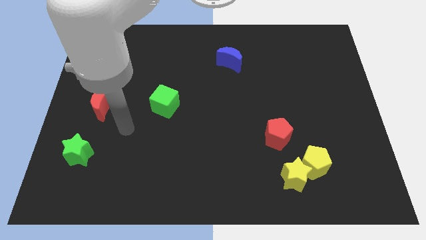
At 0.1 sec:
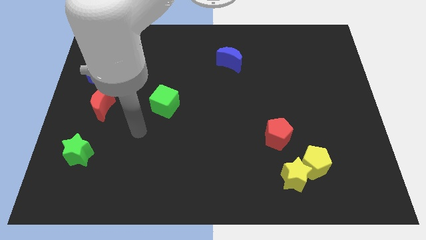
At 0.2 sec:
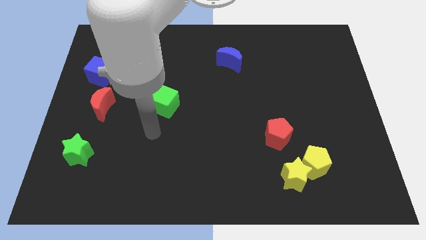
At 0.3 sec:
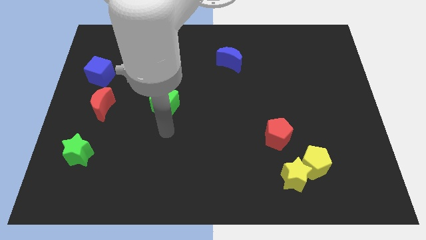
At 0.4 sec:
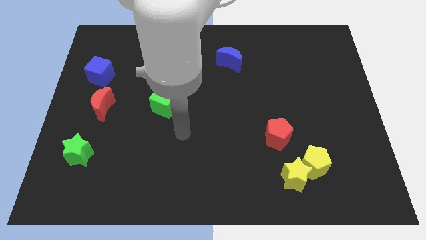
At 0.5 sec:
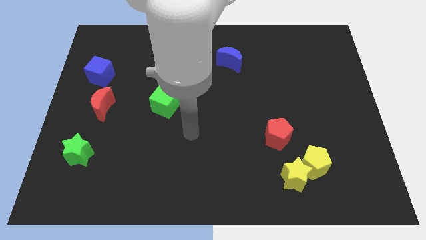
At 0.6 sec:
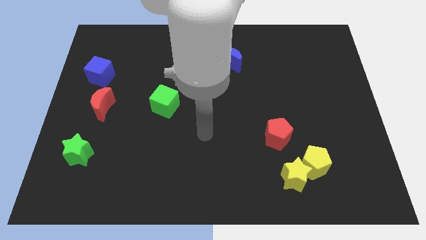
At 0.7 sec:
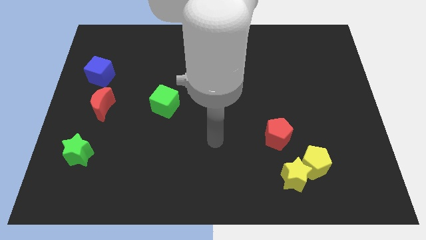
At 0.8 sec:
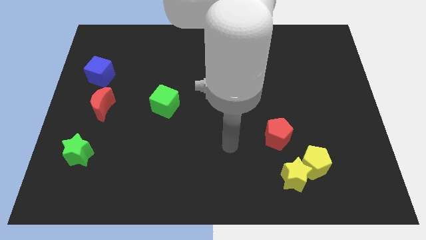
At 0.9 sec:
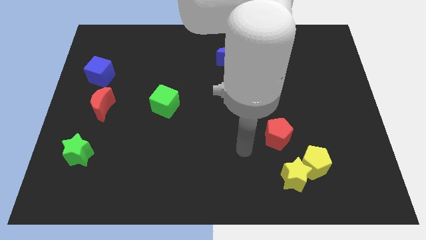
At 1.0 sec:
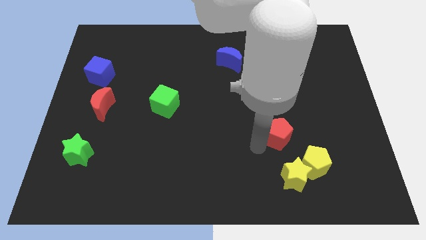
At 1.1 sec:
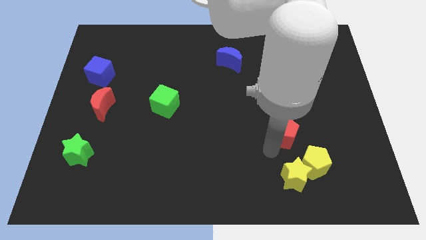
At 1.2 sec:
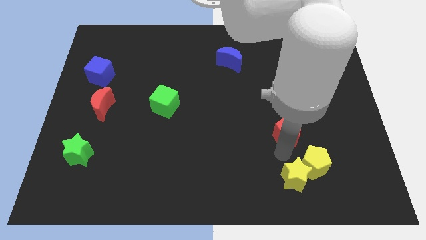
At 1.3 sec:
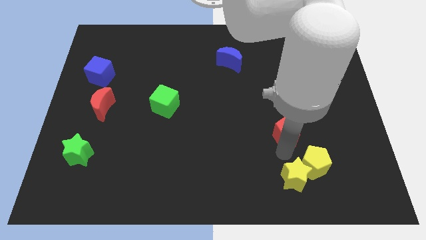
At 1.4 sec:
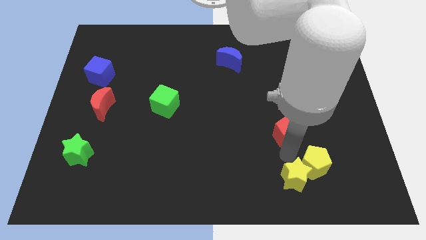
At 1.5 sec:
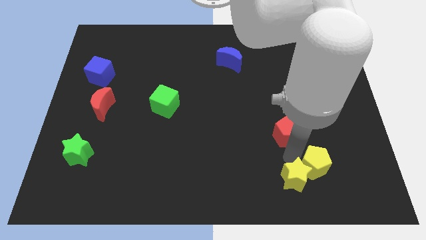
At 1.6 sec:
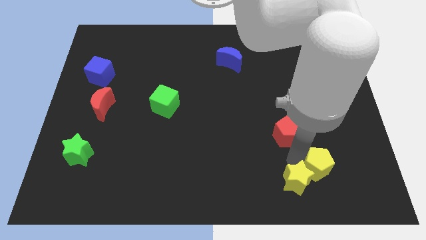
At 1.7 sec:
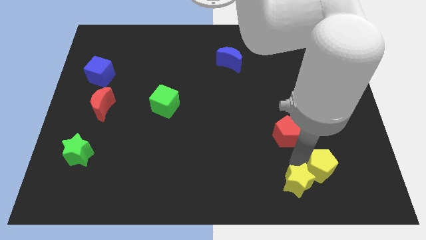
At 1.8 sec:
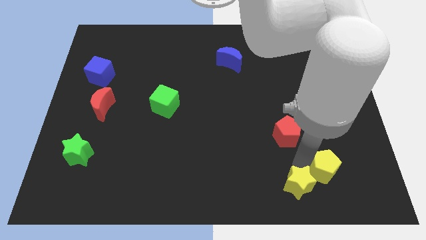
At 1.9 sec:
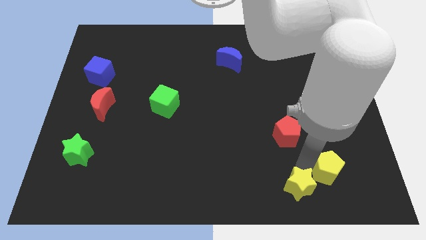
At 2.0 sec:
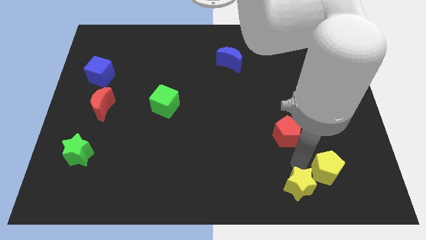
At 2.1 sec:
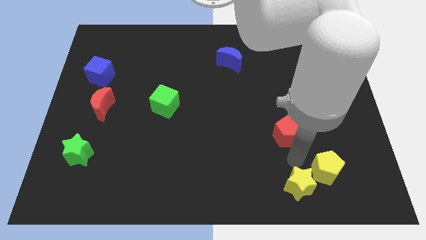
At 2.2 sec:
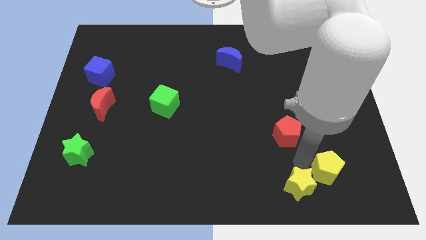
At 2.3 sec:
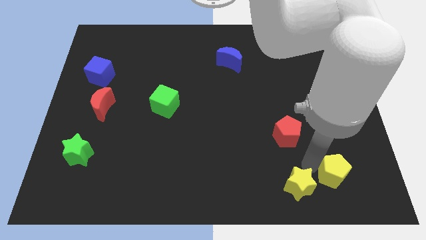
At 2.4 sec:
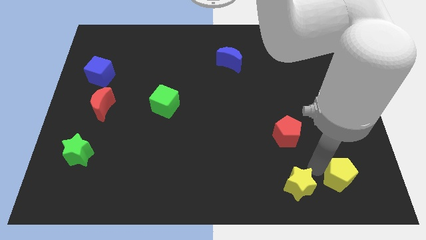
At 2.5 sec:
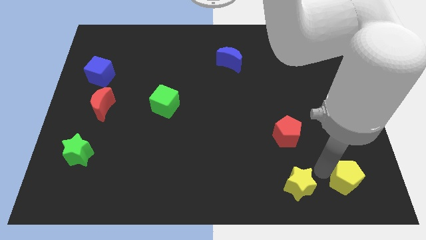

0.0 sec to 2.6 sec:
move the yellow pentagon away from the yellow star and red pentagon

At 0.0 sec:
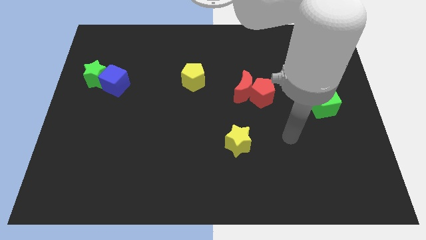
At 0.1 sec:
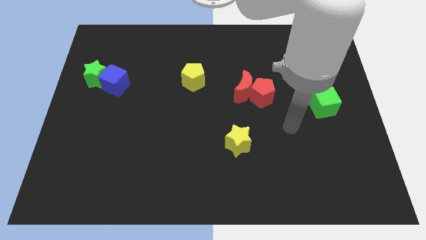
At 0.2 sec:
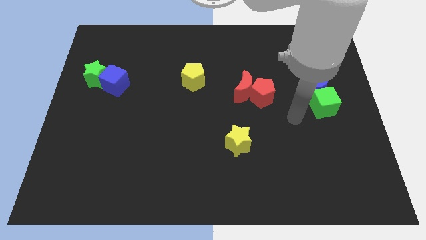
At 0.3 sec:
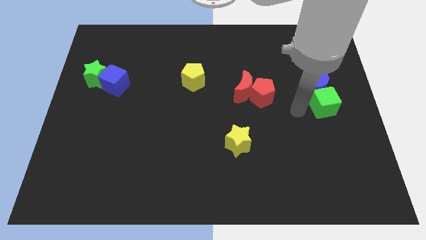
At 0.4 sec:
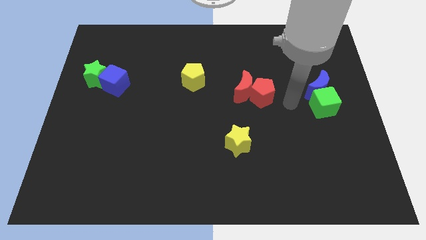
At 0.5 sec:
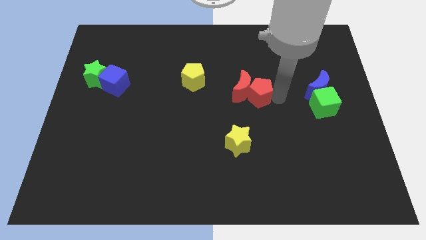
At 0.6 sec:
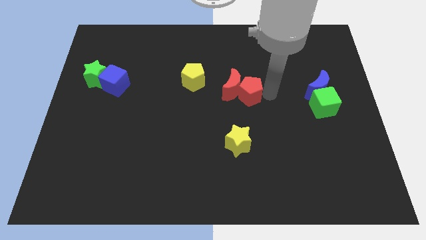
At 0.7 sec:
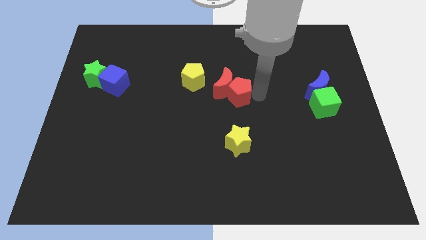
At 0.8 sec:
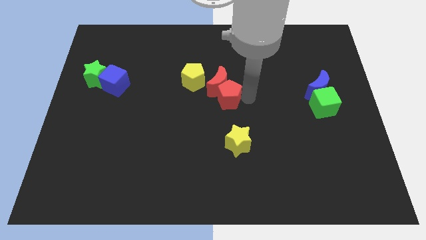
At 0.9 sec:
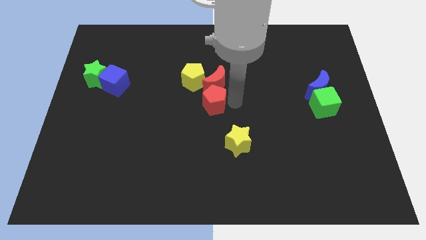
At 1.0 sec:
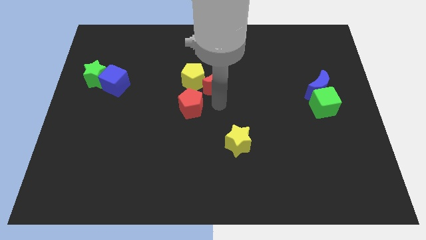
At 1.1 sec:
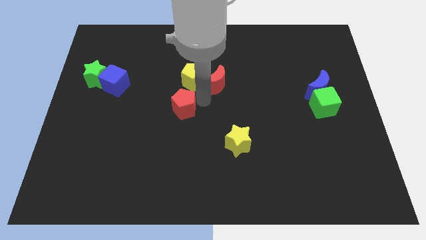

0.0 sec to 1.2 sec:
pull the red moon apart from the red pentagon

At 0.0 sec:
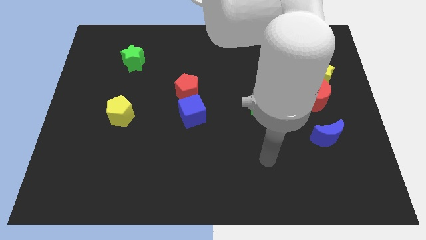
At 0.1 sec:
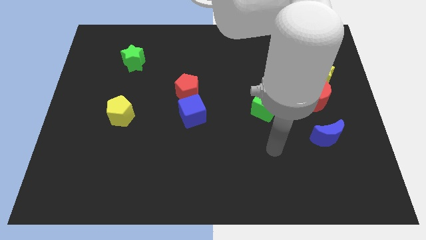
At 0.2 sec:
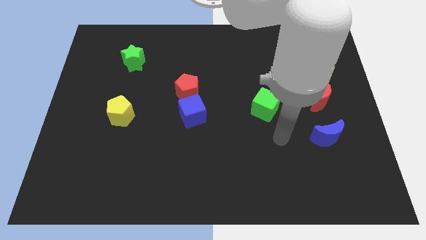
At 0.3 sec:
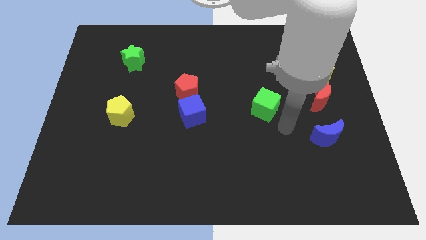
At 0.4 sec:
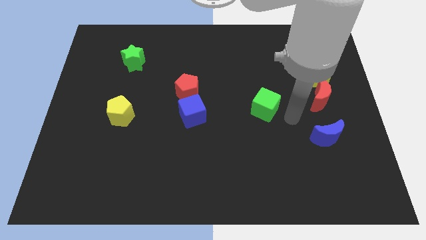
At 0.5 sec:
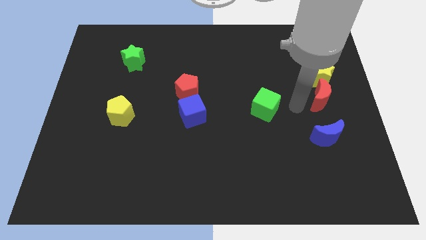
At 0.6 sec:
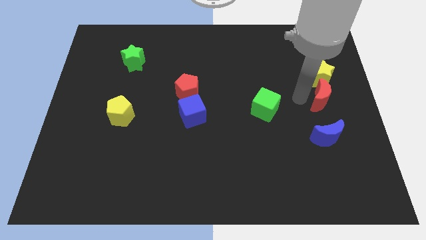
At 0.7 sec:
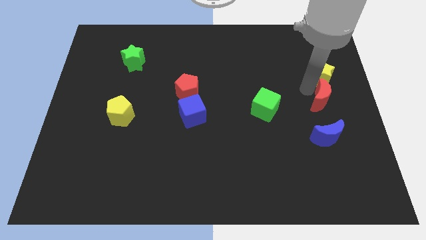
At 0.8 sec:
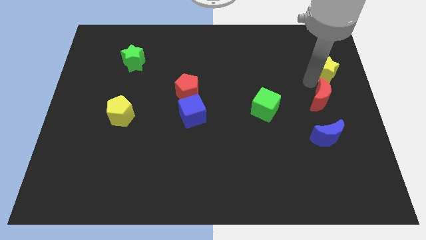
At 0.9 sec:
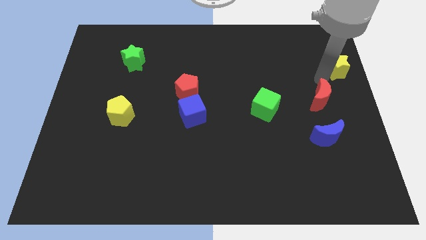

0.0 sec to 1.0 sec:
separate the red moon from the yellow star

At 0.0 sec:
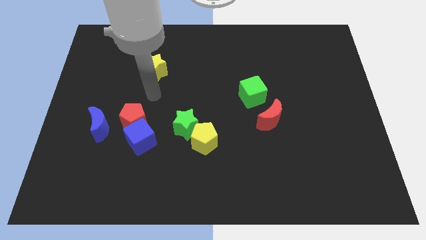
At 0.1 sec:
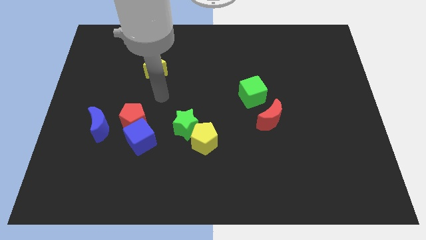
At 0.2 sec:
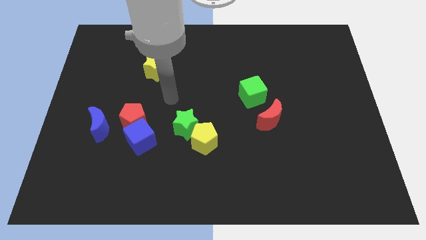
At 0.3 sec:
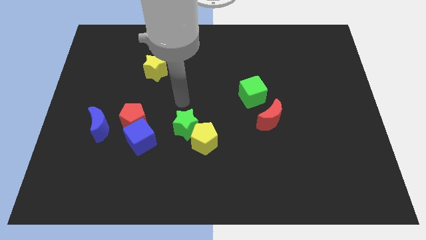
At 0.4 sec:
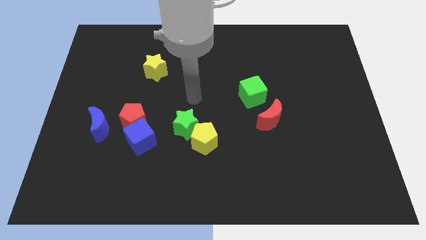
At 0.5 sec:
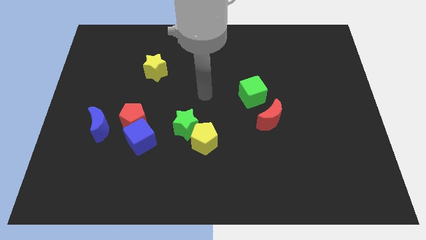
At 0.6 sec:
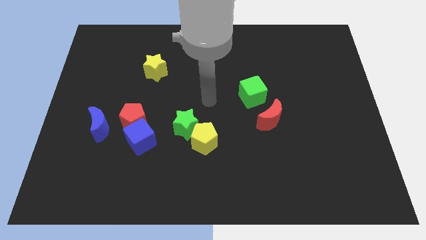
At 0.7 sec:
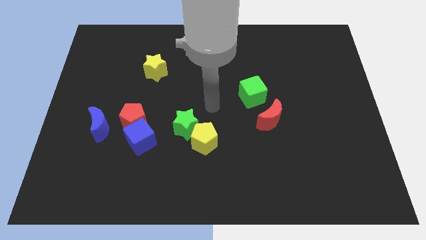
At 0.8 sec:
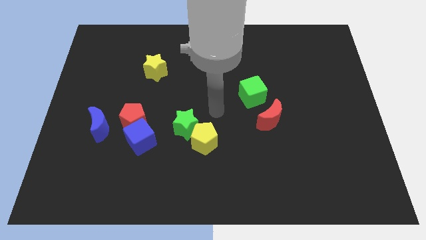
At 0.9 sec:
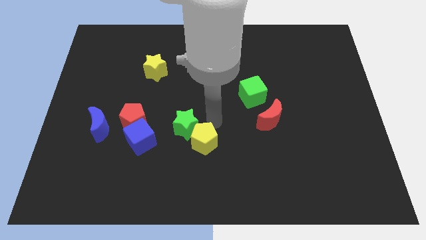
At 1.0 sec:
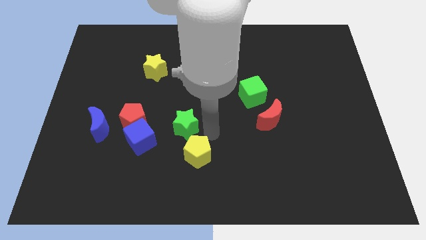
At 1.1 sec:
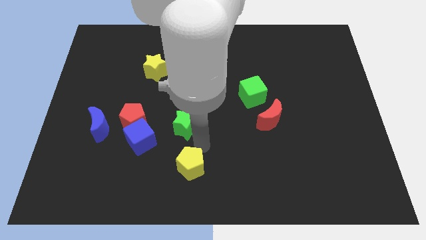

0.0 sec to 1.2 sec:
move the green star away from the yellow pentagon

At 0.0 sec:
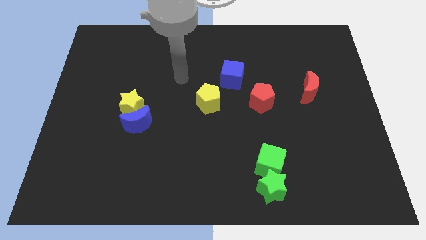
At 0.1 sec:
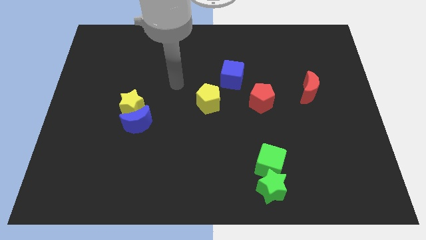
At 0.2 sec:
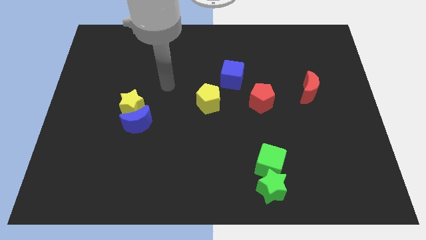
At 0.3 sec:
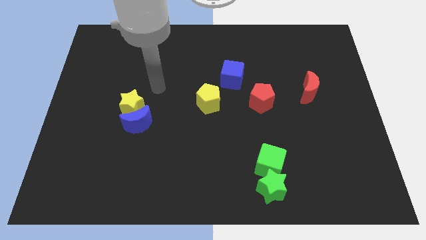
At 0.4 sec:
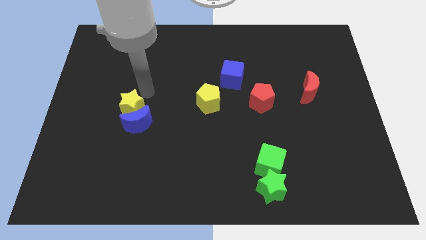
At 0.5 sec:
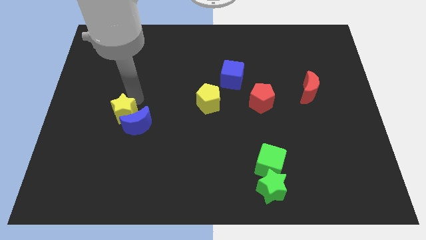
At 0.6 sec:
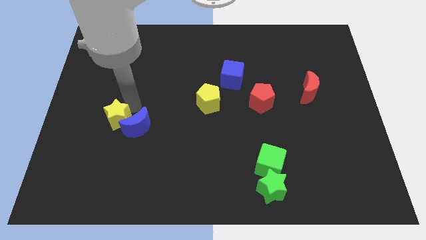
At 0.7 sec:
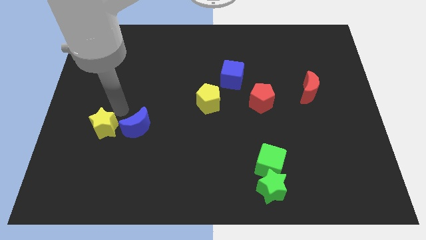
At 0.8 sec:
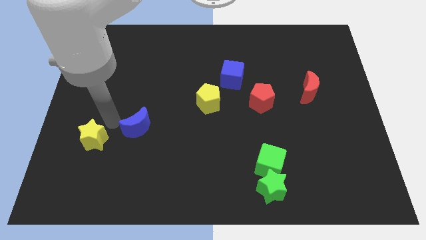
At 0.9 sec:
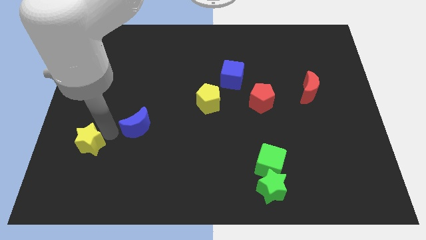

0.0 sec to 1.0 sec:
separate the blue moon from the yellow star

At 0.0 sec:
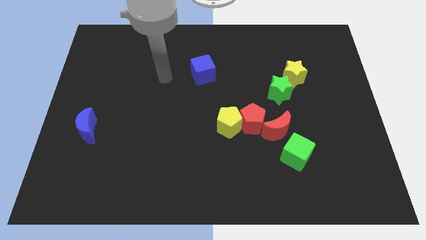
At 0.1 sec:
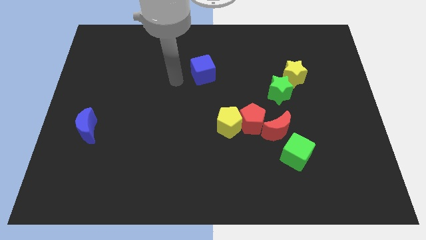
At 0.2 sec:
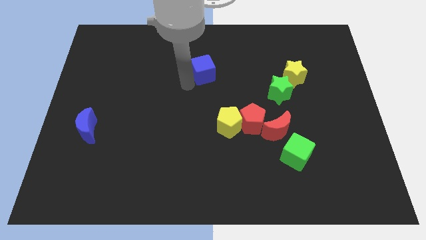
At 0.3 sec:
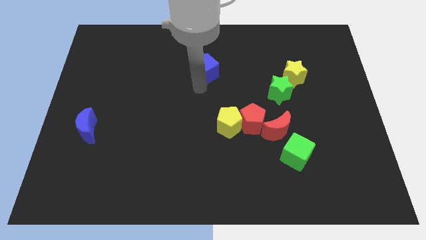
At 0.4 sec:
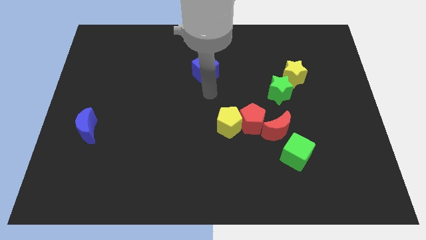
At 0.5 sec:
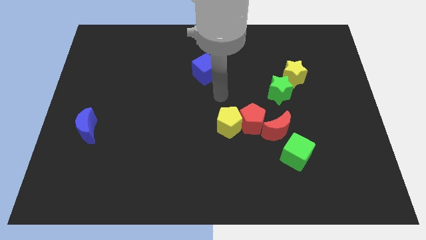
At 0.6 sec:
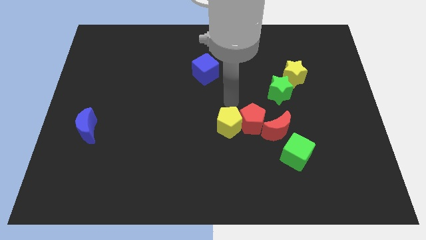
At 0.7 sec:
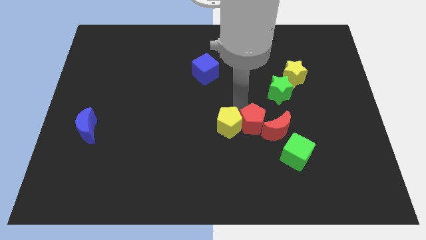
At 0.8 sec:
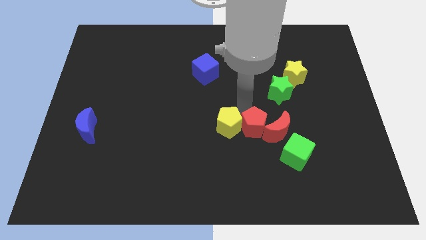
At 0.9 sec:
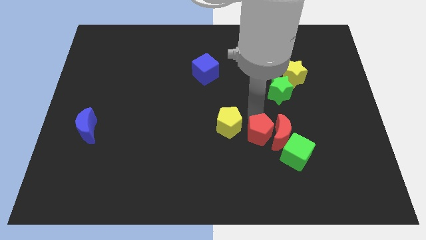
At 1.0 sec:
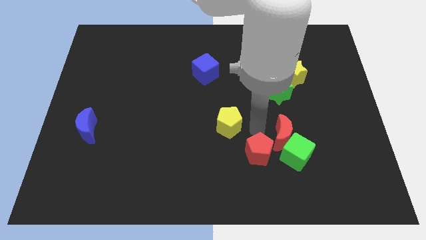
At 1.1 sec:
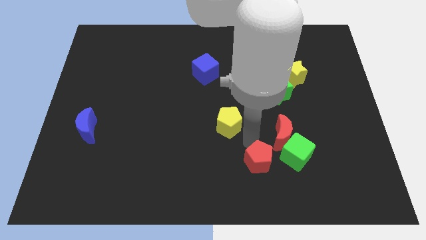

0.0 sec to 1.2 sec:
separate the yellow pentagon from the red pentagon

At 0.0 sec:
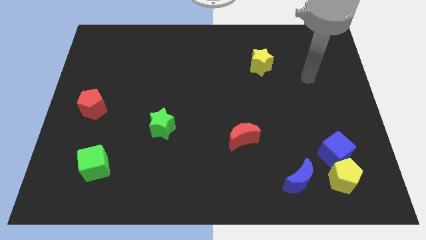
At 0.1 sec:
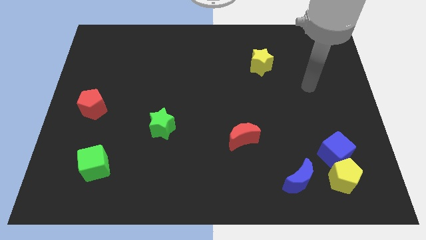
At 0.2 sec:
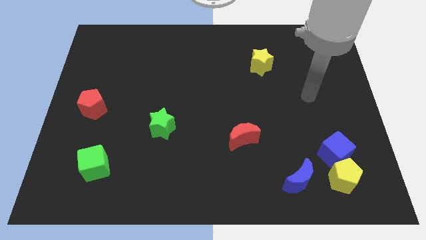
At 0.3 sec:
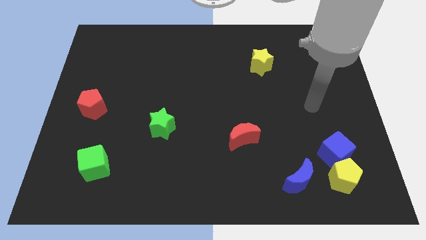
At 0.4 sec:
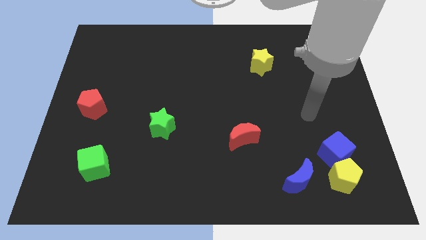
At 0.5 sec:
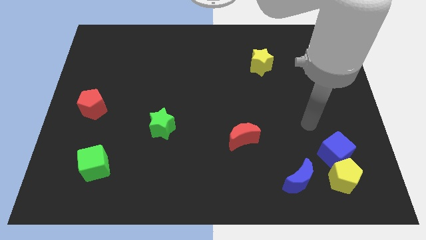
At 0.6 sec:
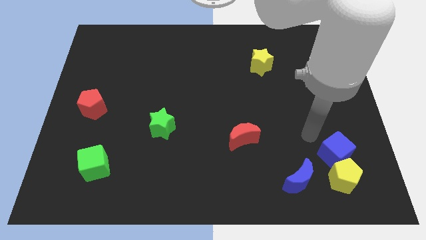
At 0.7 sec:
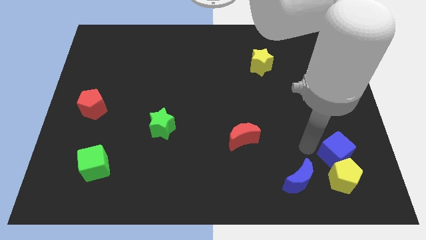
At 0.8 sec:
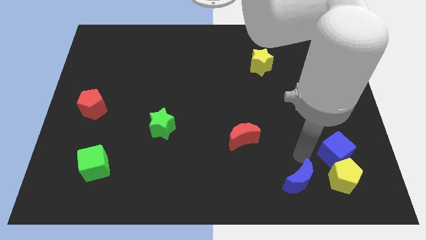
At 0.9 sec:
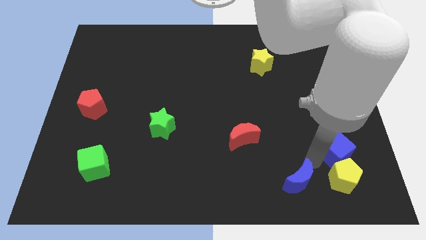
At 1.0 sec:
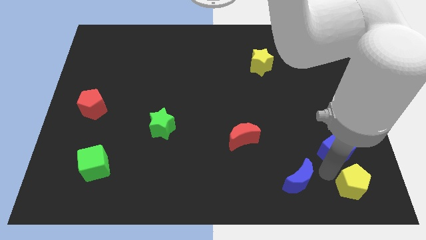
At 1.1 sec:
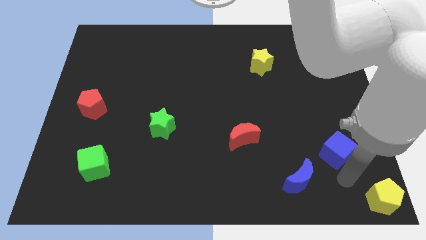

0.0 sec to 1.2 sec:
move the blue cube away from the yellow pentagon
